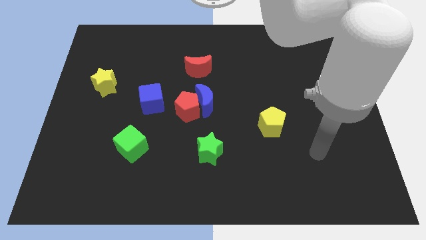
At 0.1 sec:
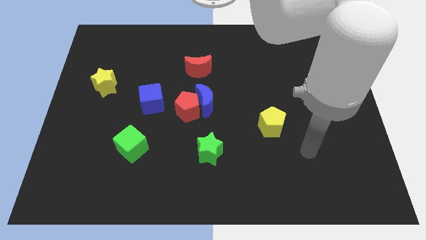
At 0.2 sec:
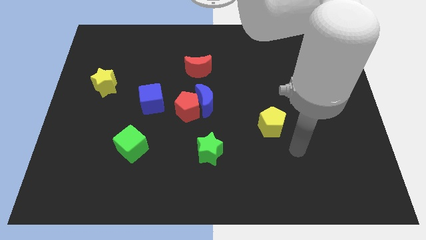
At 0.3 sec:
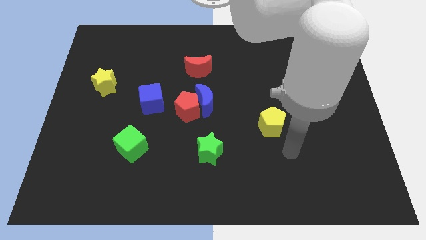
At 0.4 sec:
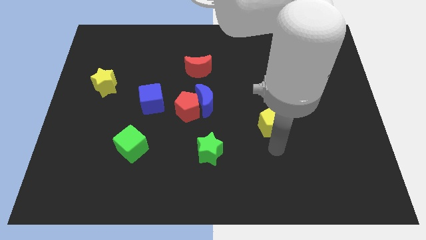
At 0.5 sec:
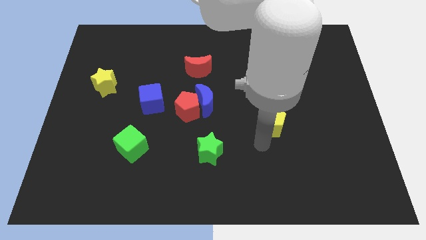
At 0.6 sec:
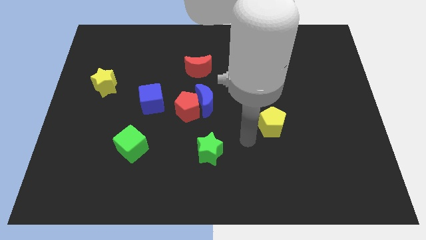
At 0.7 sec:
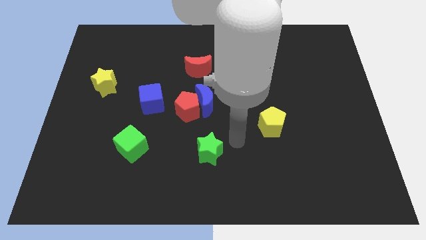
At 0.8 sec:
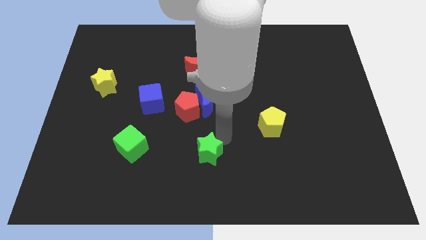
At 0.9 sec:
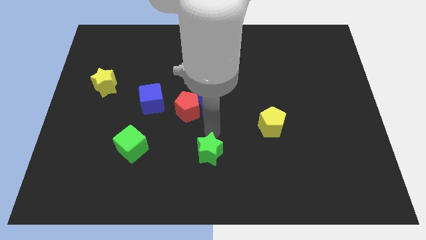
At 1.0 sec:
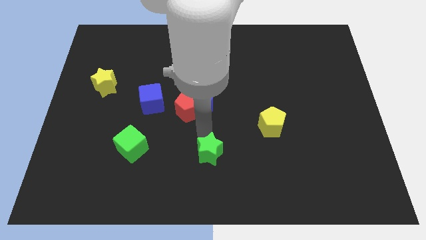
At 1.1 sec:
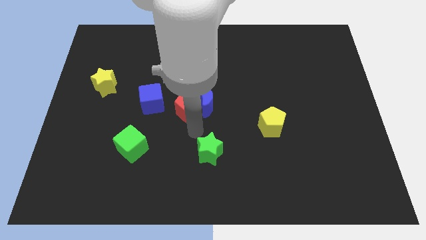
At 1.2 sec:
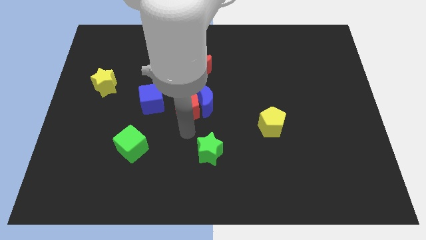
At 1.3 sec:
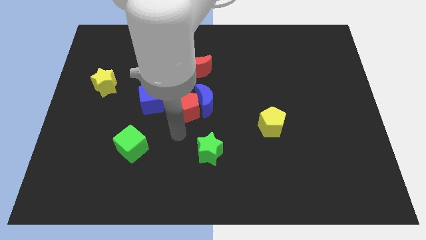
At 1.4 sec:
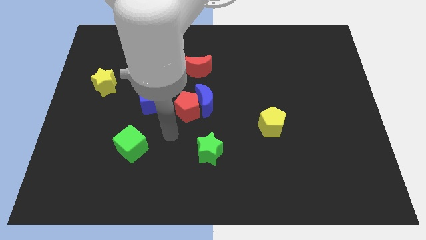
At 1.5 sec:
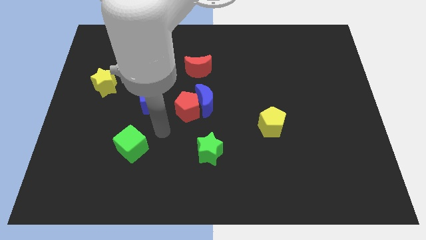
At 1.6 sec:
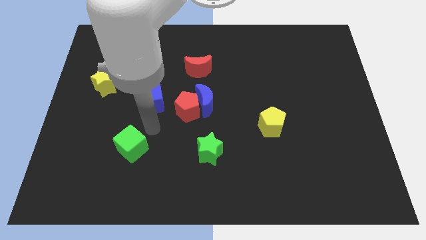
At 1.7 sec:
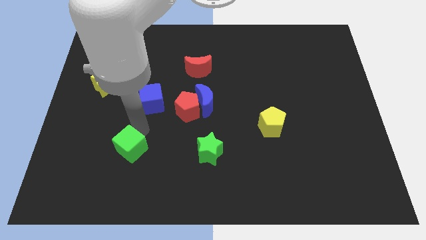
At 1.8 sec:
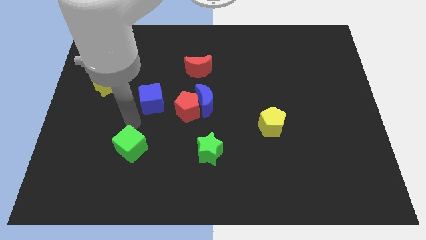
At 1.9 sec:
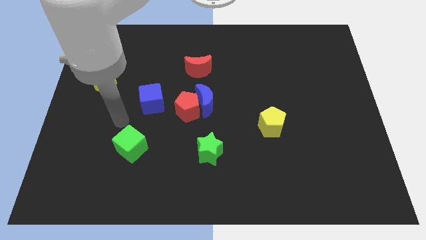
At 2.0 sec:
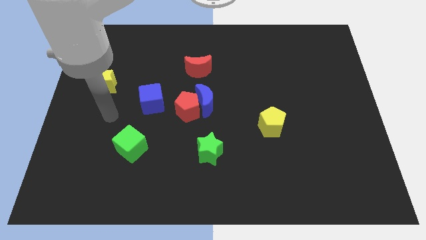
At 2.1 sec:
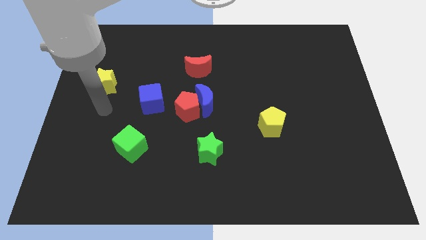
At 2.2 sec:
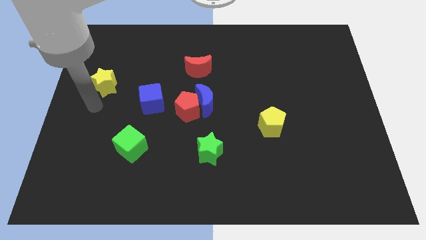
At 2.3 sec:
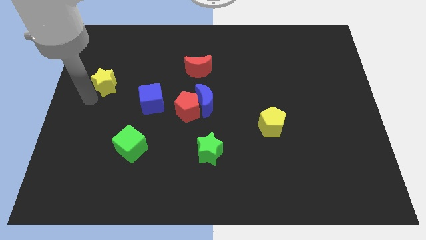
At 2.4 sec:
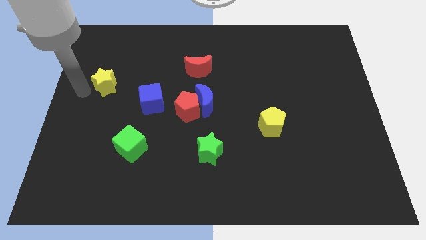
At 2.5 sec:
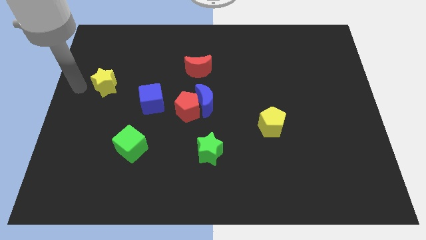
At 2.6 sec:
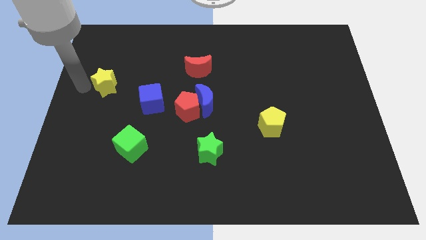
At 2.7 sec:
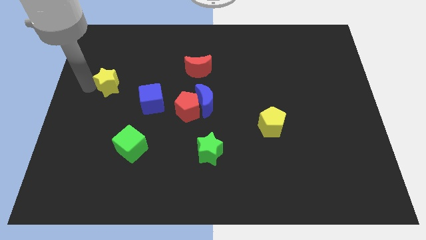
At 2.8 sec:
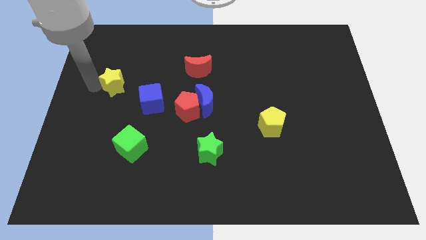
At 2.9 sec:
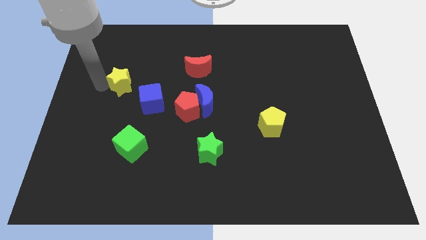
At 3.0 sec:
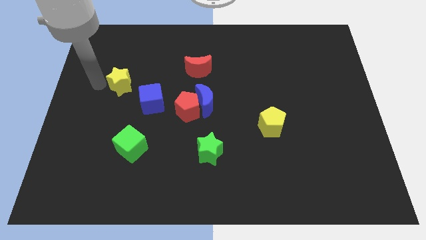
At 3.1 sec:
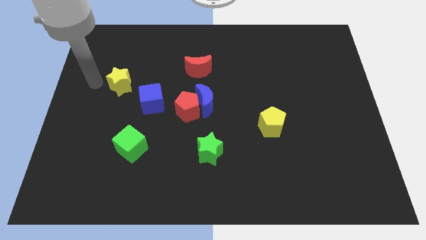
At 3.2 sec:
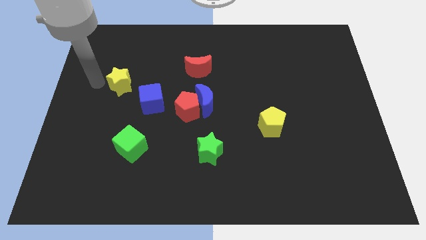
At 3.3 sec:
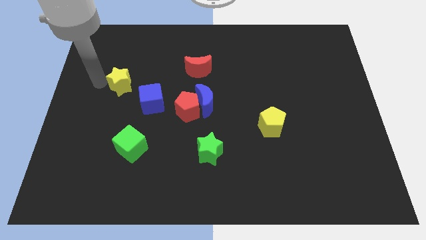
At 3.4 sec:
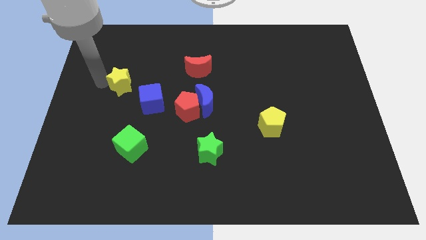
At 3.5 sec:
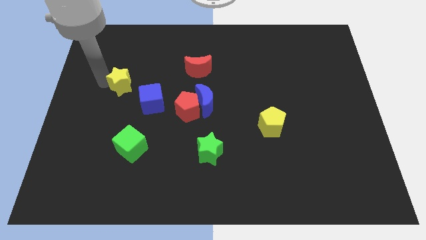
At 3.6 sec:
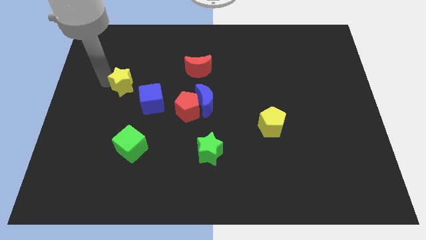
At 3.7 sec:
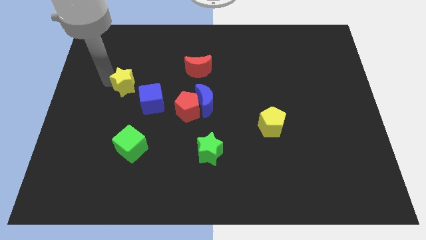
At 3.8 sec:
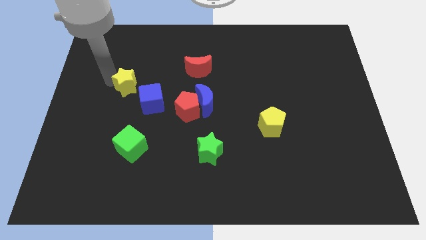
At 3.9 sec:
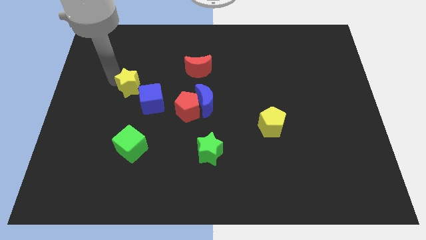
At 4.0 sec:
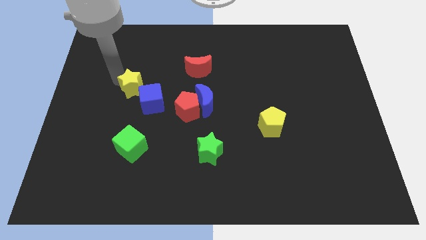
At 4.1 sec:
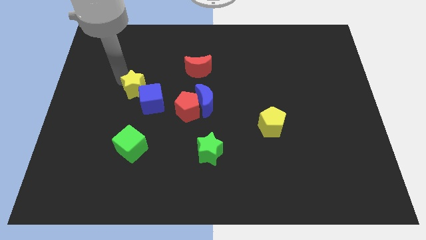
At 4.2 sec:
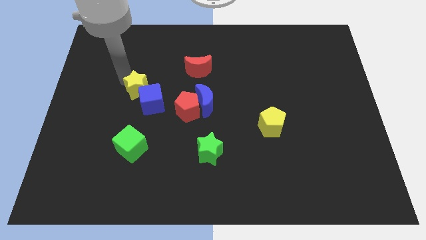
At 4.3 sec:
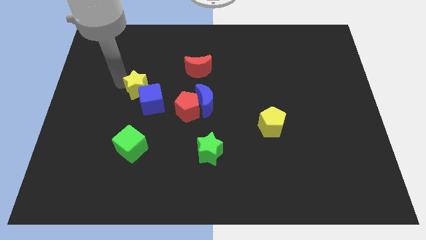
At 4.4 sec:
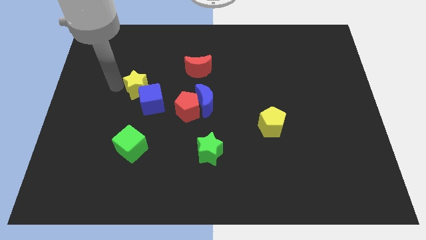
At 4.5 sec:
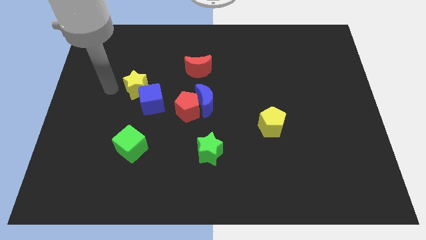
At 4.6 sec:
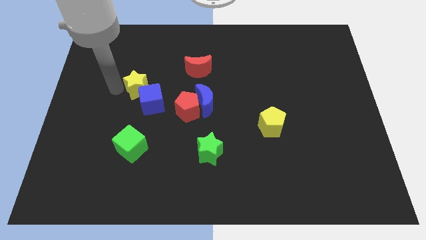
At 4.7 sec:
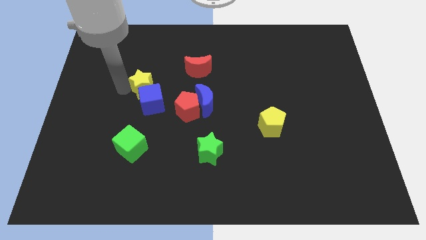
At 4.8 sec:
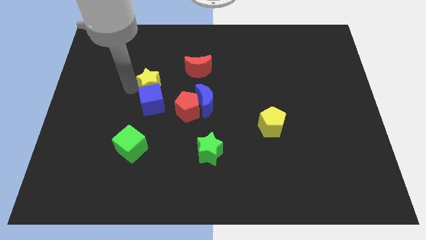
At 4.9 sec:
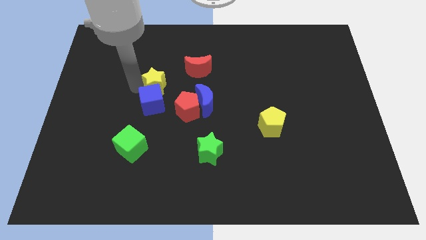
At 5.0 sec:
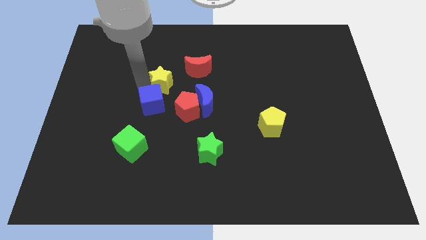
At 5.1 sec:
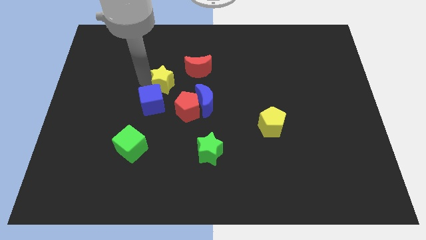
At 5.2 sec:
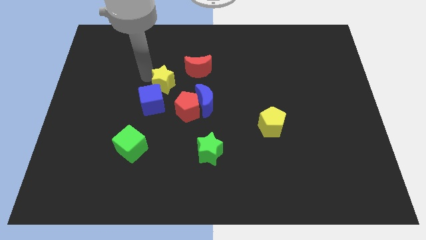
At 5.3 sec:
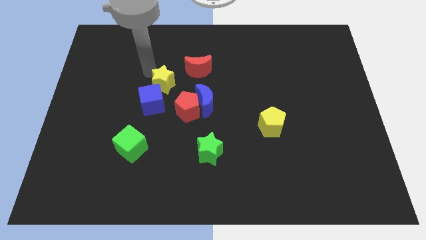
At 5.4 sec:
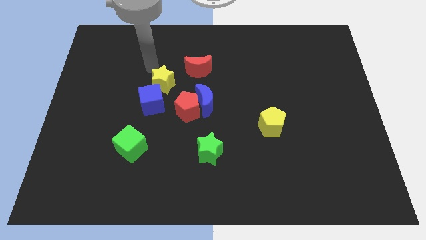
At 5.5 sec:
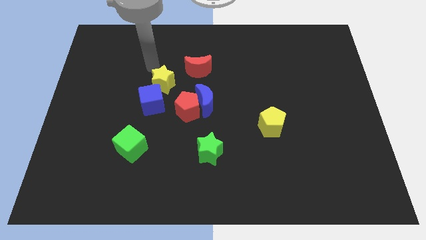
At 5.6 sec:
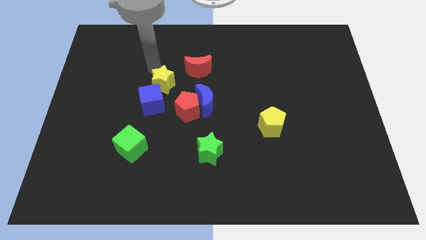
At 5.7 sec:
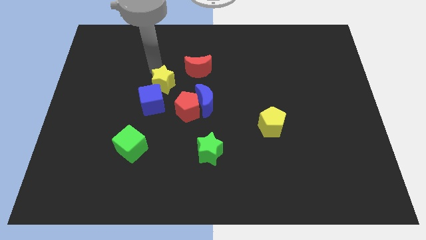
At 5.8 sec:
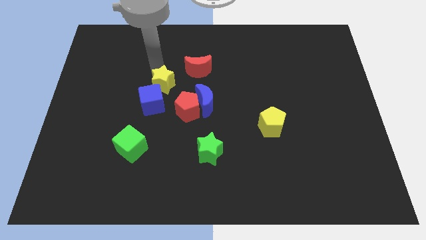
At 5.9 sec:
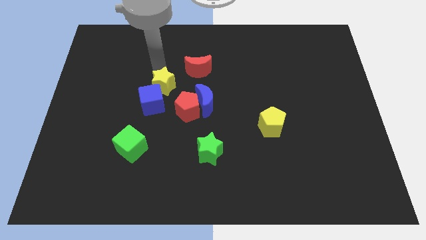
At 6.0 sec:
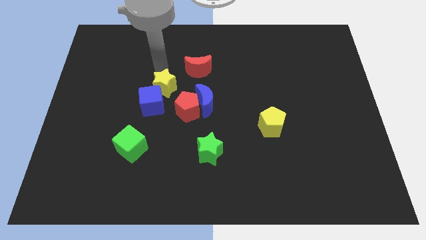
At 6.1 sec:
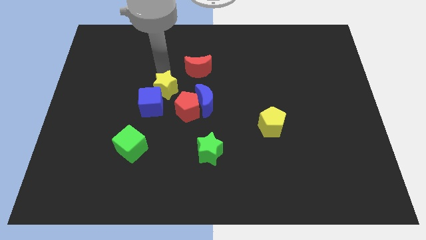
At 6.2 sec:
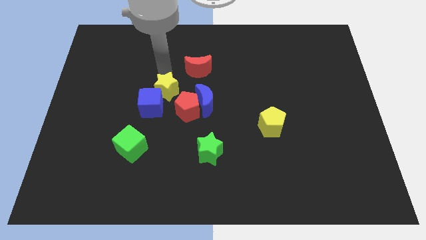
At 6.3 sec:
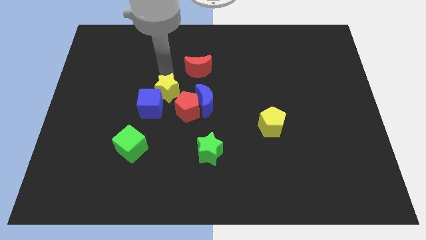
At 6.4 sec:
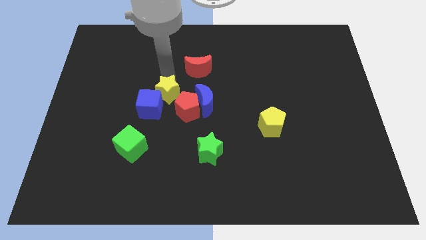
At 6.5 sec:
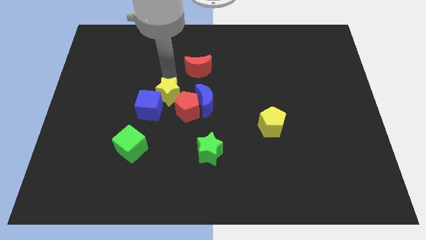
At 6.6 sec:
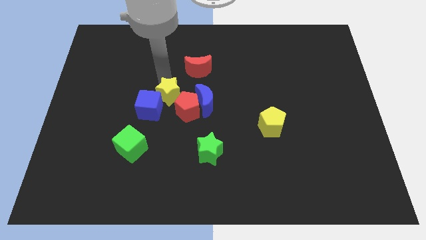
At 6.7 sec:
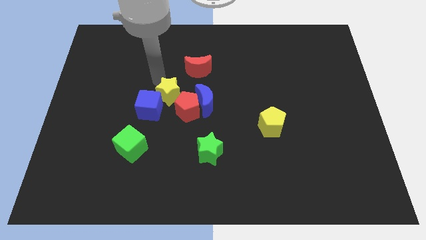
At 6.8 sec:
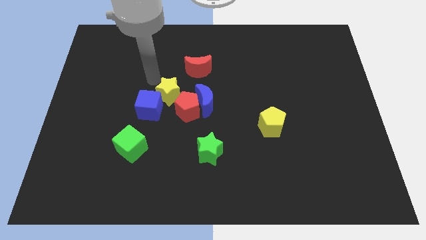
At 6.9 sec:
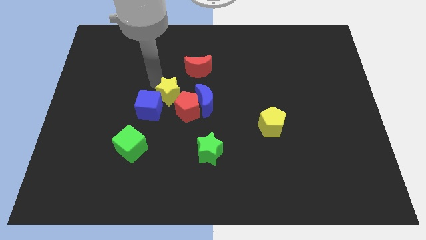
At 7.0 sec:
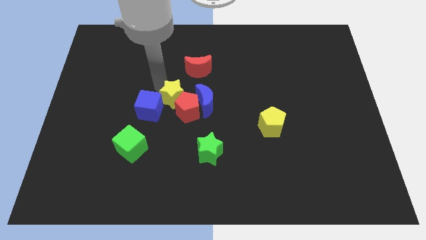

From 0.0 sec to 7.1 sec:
put the yellow star to the red pentagon
